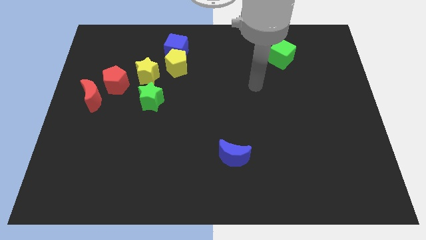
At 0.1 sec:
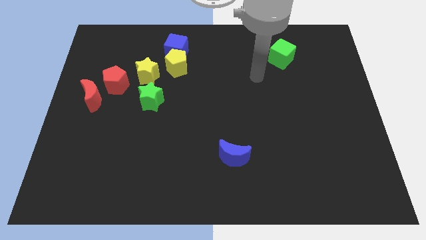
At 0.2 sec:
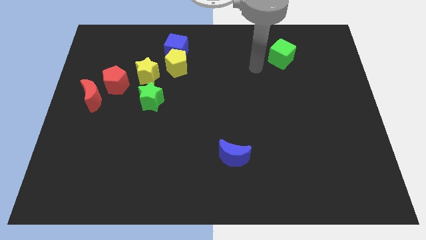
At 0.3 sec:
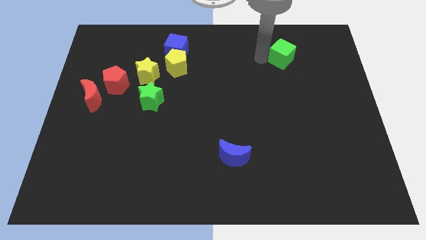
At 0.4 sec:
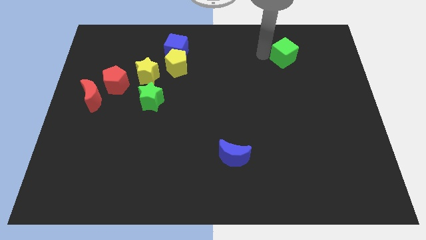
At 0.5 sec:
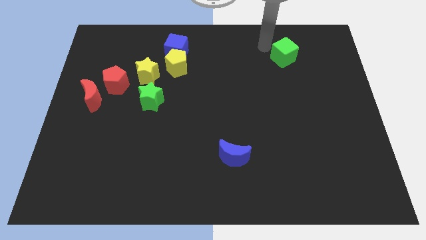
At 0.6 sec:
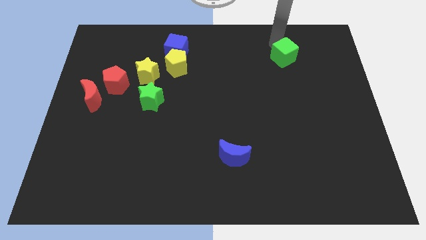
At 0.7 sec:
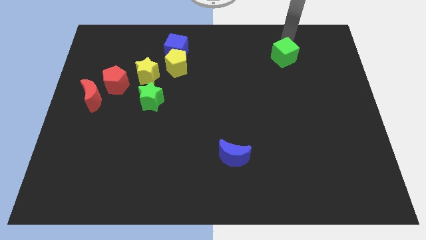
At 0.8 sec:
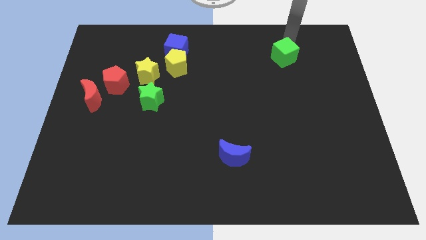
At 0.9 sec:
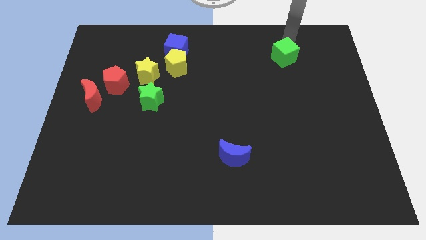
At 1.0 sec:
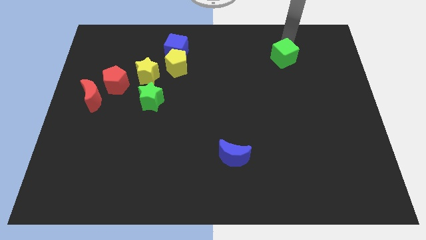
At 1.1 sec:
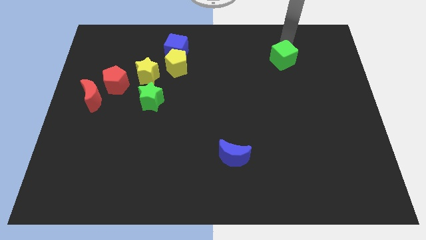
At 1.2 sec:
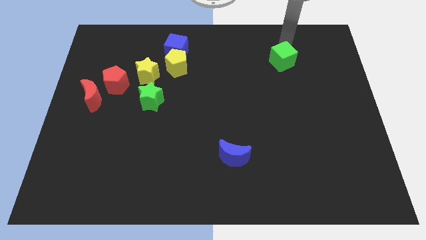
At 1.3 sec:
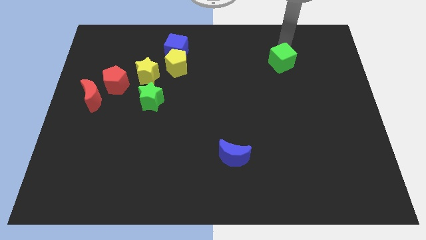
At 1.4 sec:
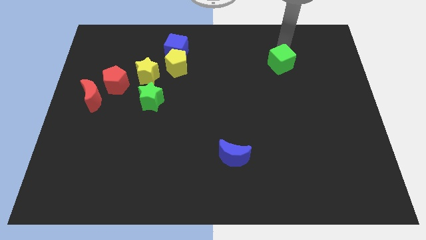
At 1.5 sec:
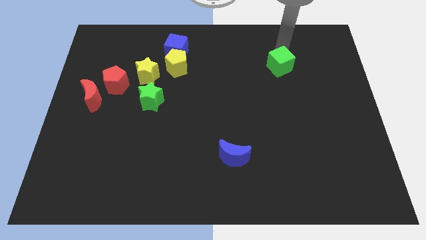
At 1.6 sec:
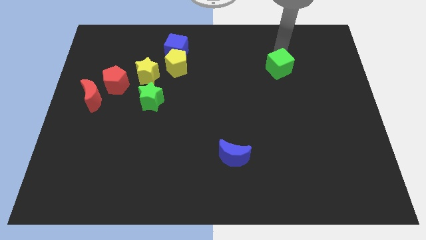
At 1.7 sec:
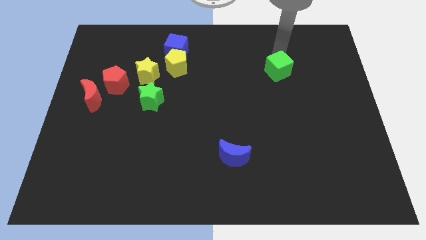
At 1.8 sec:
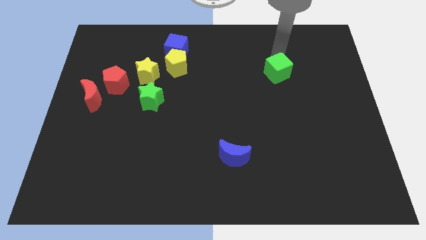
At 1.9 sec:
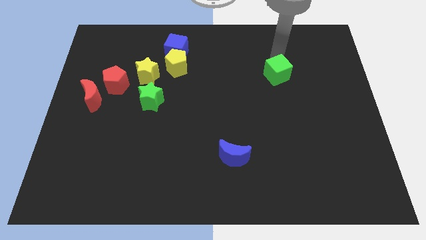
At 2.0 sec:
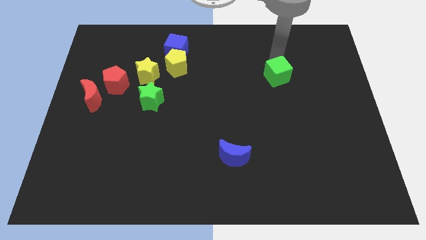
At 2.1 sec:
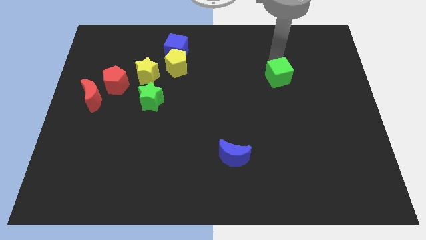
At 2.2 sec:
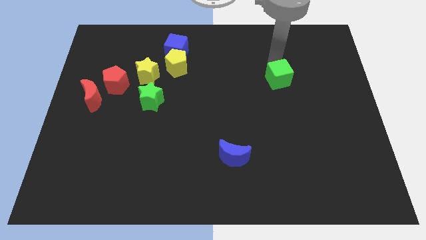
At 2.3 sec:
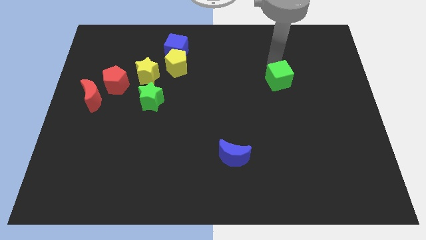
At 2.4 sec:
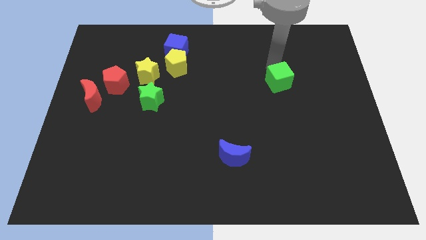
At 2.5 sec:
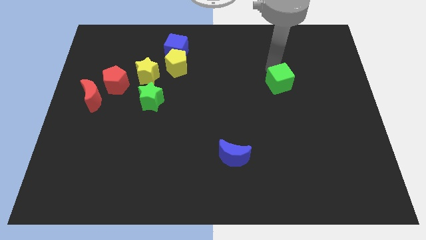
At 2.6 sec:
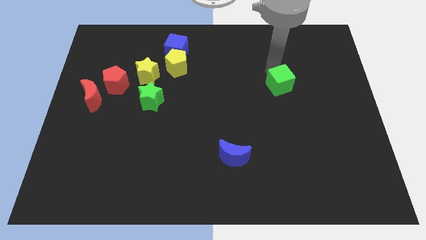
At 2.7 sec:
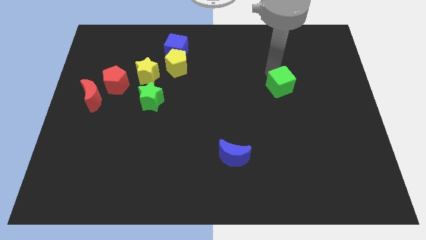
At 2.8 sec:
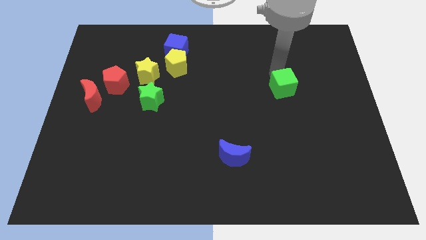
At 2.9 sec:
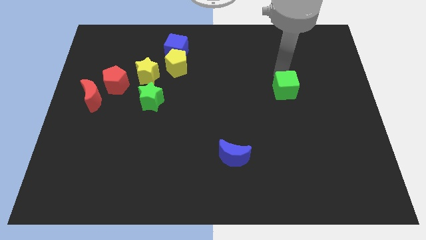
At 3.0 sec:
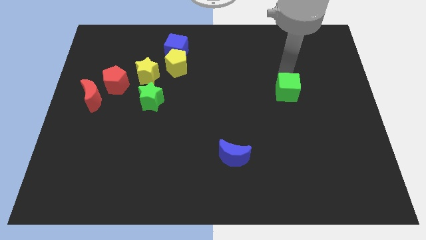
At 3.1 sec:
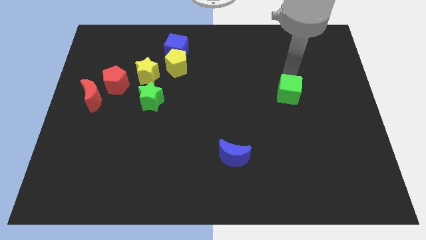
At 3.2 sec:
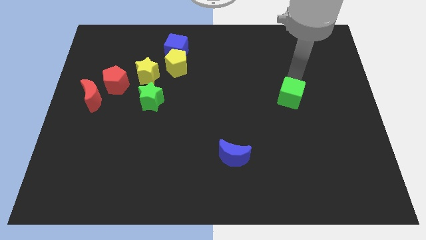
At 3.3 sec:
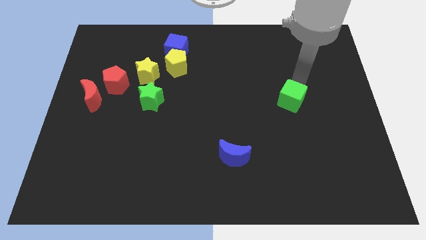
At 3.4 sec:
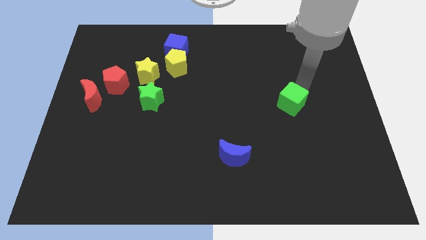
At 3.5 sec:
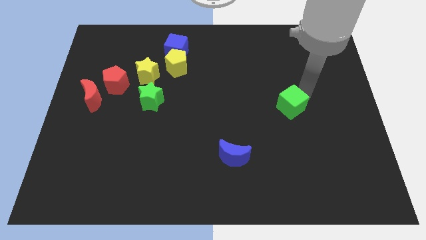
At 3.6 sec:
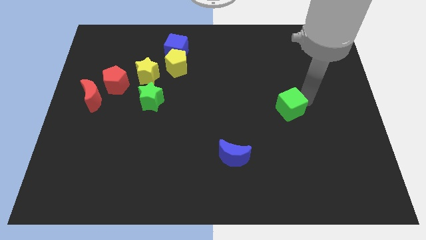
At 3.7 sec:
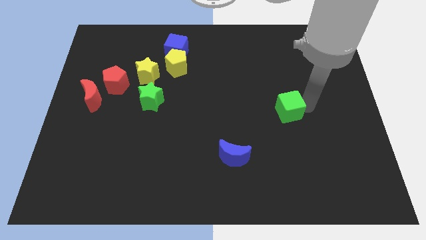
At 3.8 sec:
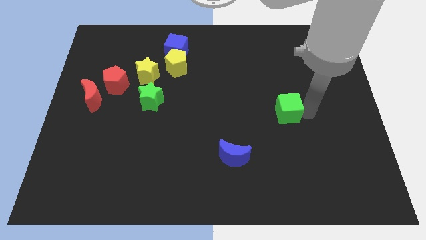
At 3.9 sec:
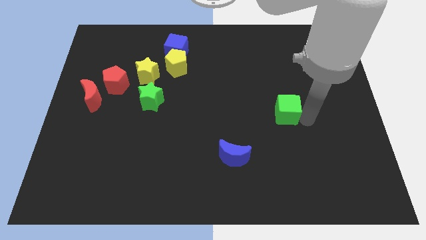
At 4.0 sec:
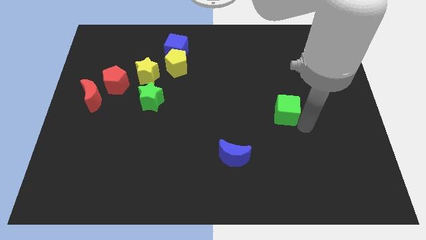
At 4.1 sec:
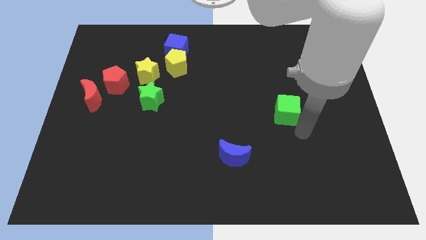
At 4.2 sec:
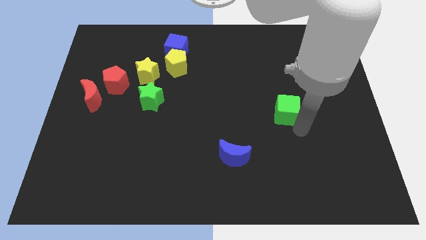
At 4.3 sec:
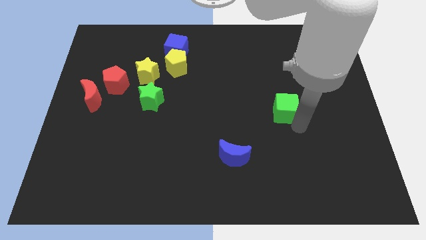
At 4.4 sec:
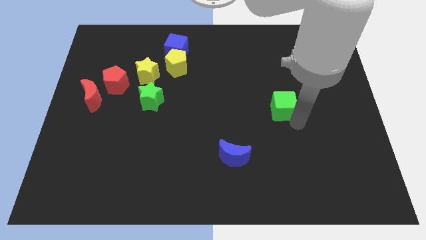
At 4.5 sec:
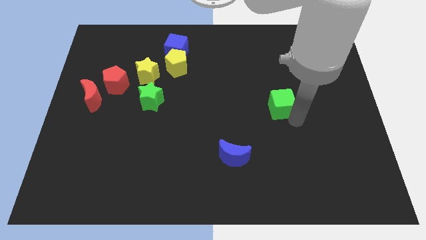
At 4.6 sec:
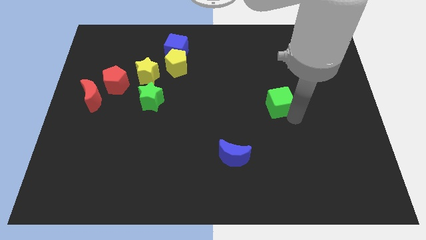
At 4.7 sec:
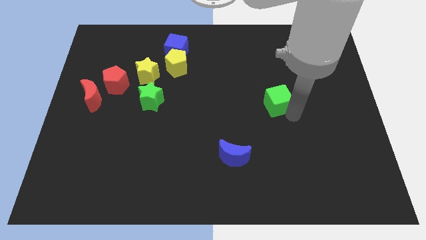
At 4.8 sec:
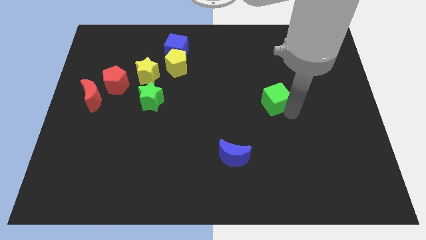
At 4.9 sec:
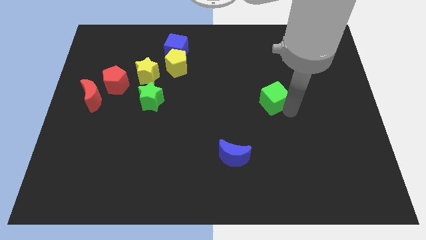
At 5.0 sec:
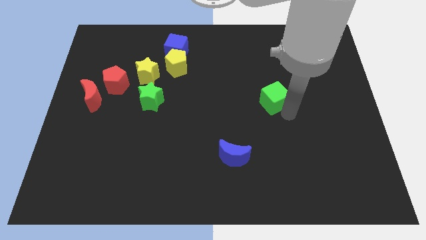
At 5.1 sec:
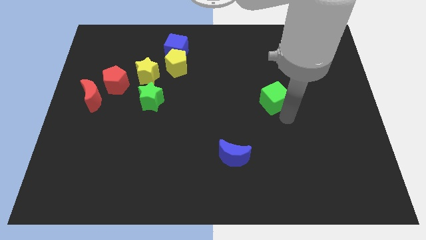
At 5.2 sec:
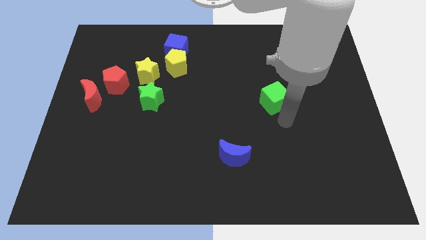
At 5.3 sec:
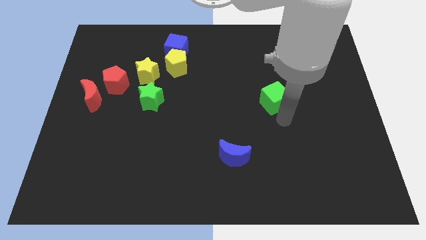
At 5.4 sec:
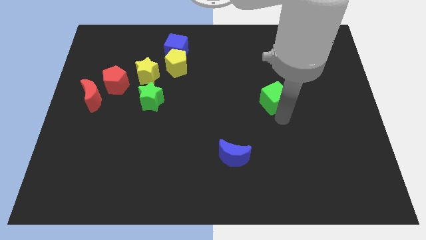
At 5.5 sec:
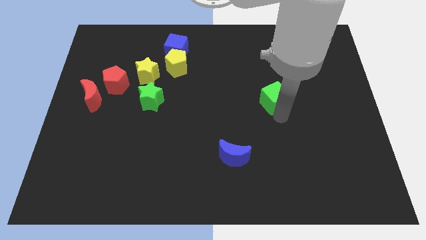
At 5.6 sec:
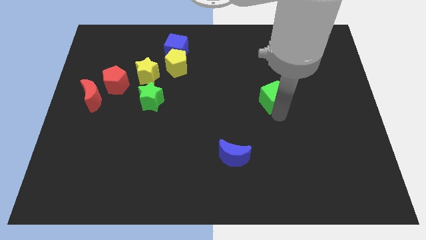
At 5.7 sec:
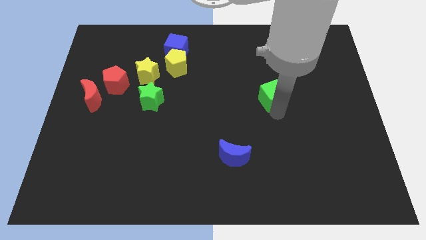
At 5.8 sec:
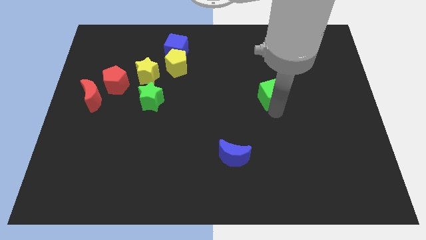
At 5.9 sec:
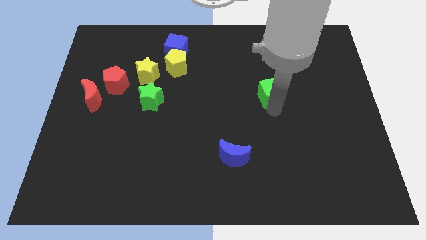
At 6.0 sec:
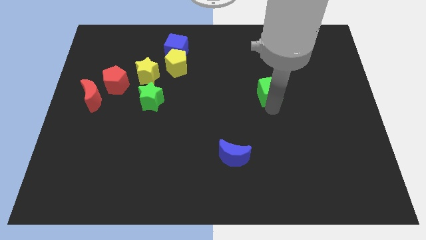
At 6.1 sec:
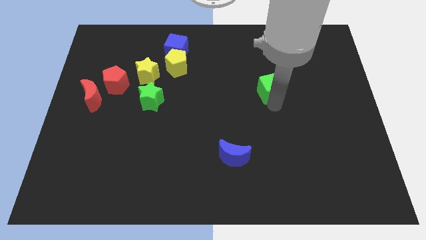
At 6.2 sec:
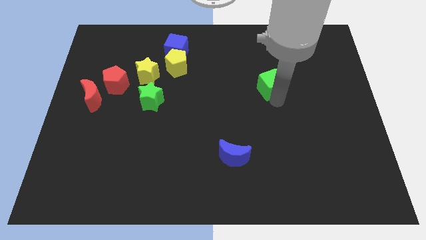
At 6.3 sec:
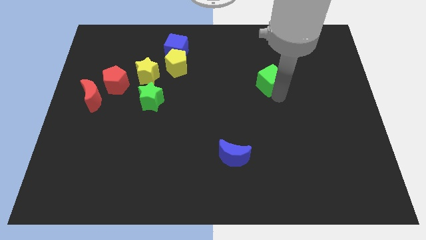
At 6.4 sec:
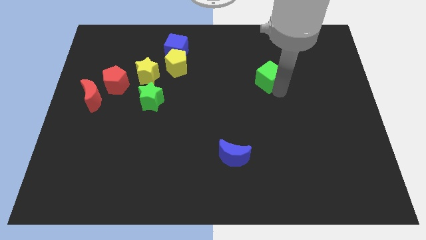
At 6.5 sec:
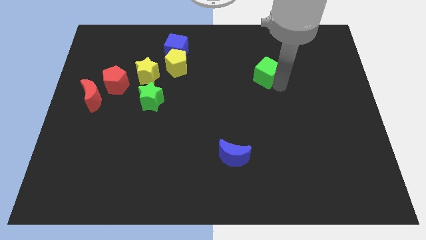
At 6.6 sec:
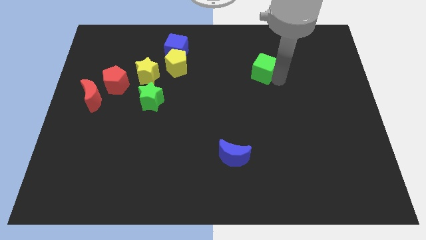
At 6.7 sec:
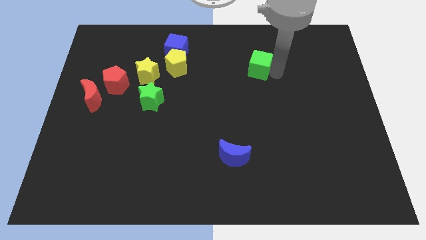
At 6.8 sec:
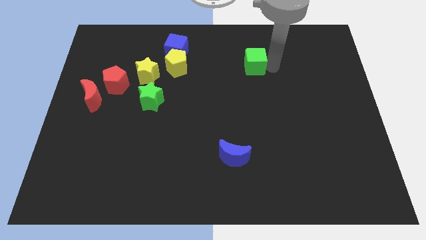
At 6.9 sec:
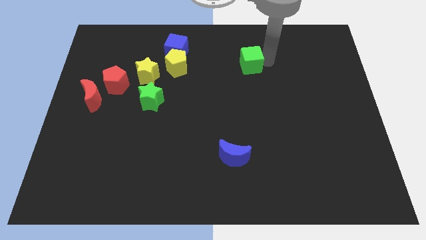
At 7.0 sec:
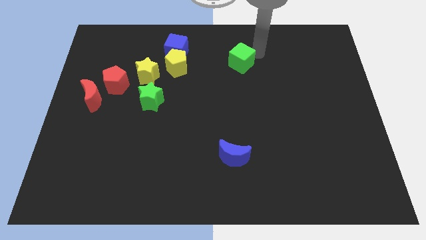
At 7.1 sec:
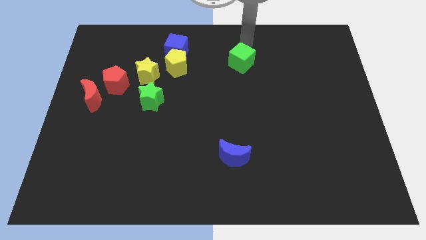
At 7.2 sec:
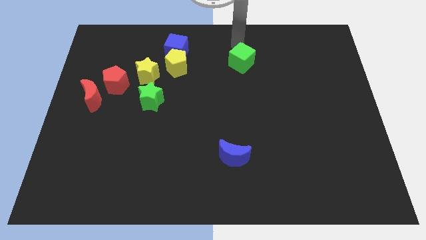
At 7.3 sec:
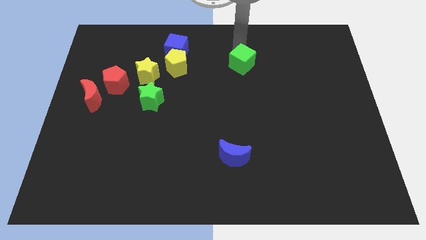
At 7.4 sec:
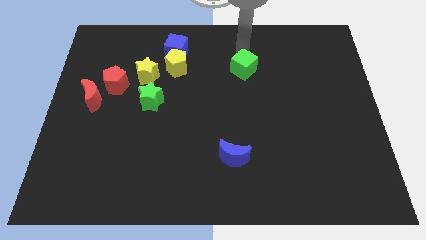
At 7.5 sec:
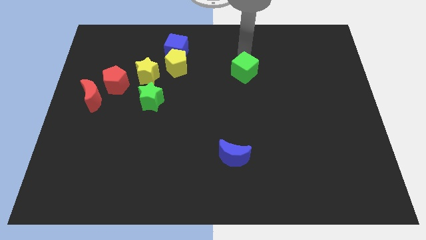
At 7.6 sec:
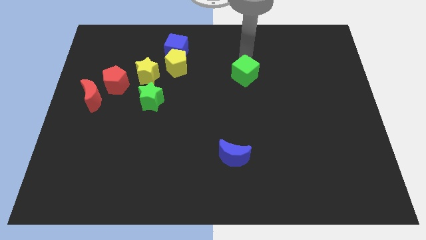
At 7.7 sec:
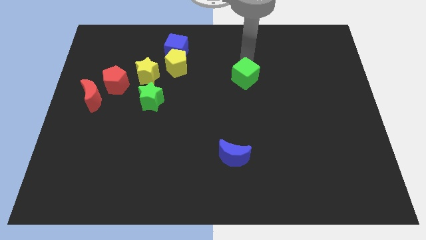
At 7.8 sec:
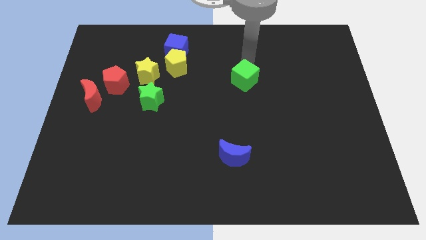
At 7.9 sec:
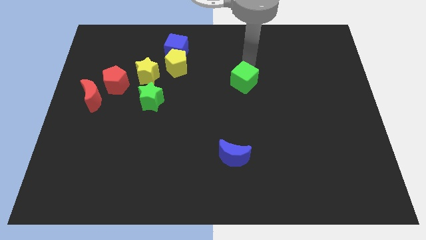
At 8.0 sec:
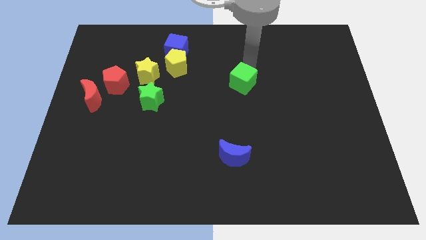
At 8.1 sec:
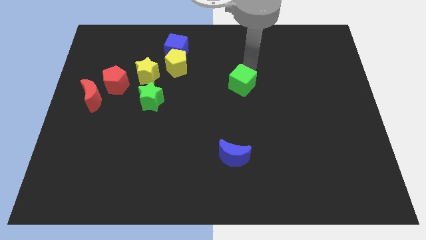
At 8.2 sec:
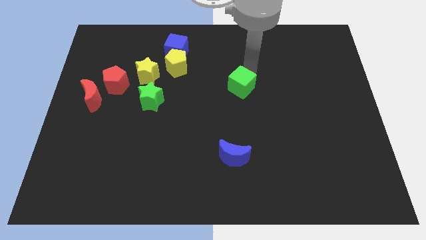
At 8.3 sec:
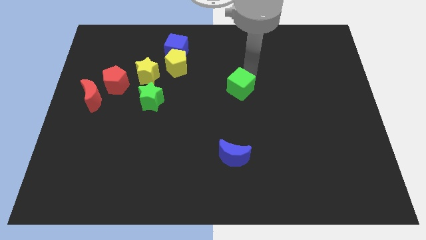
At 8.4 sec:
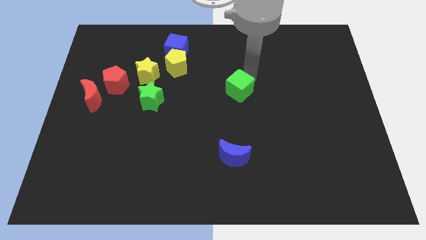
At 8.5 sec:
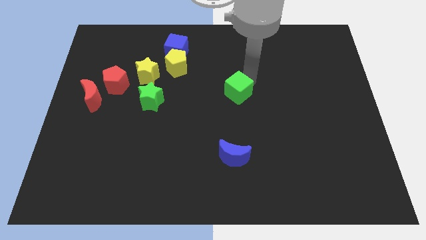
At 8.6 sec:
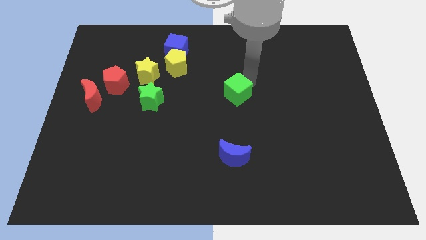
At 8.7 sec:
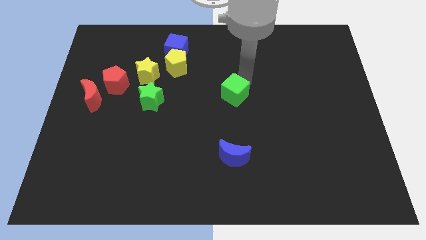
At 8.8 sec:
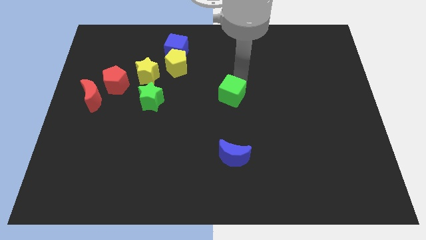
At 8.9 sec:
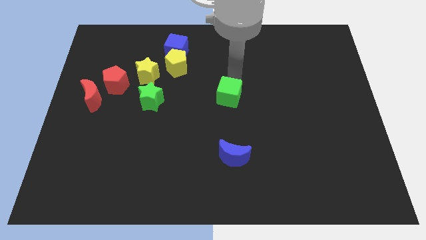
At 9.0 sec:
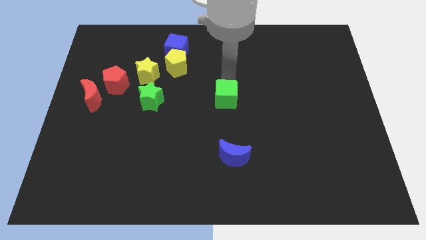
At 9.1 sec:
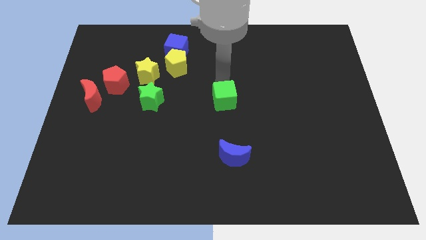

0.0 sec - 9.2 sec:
put the green cube to the top side of the blue moon
